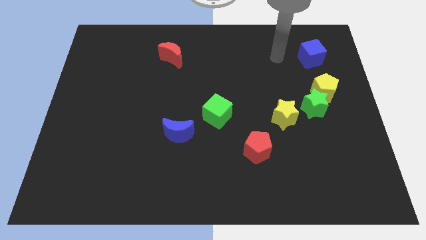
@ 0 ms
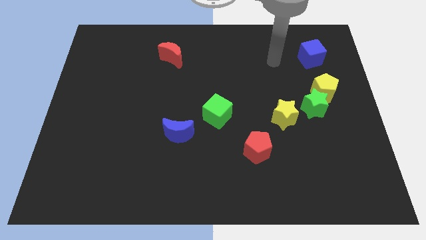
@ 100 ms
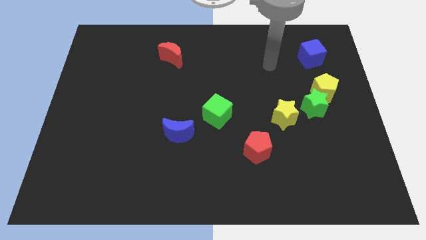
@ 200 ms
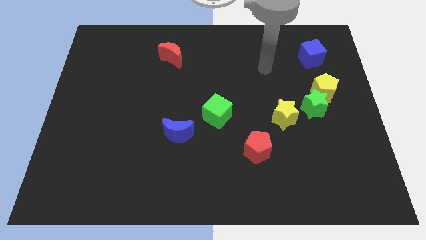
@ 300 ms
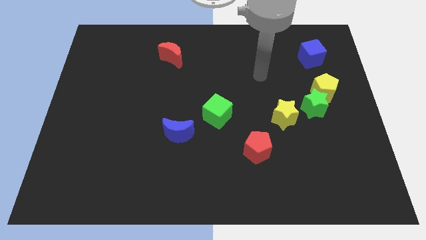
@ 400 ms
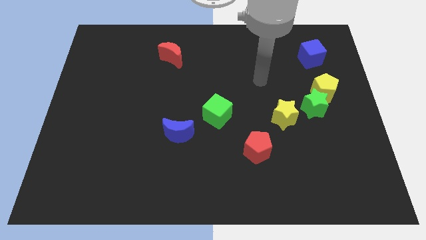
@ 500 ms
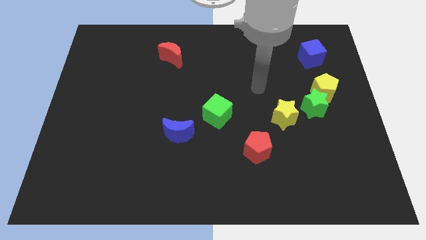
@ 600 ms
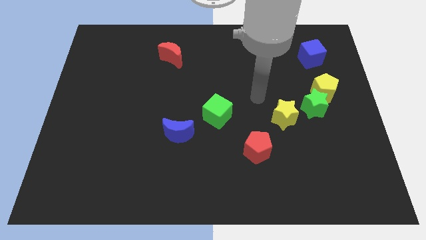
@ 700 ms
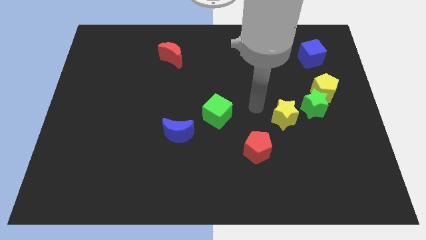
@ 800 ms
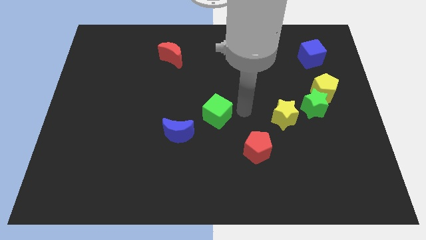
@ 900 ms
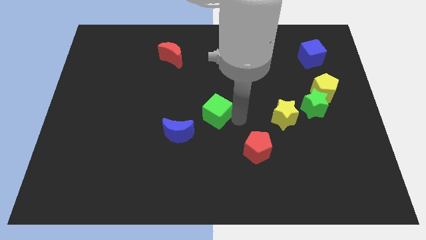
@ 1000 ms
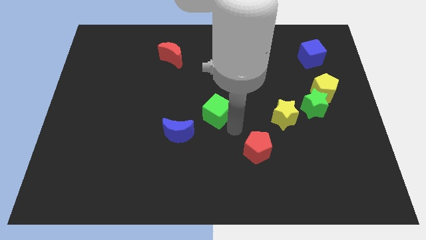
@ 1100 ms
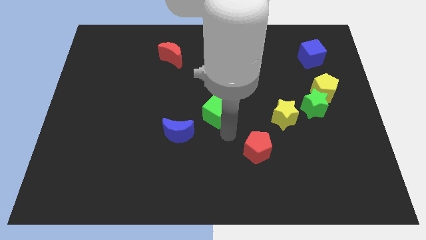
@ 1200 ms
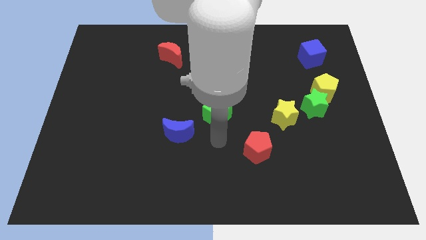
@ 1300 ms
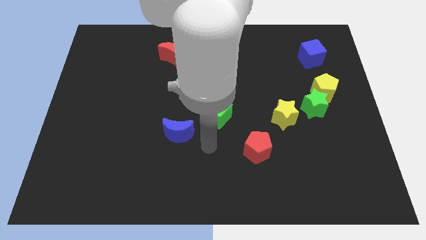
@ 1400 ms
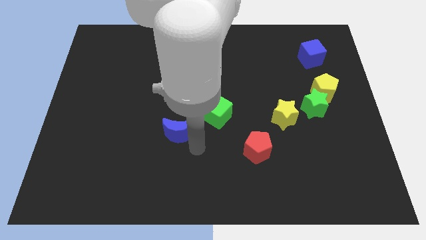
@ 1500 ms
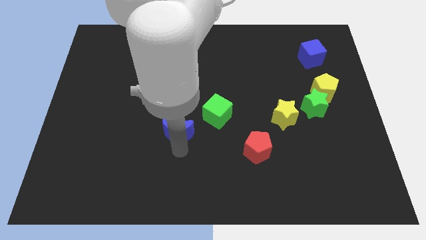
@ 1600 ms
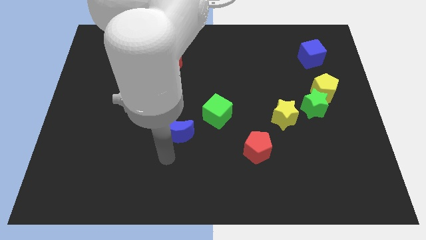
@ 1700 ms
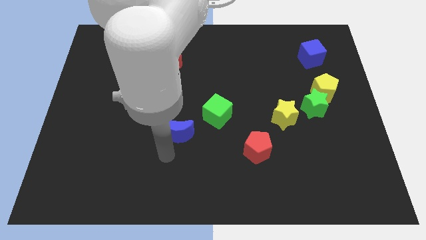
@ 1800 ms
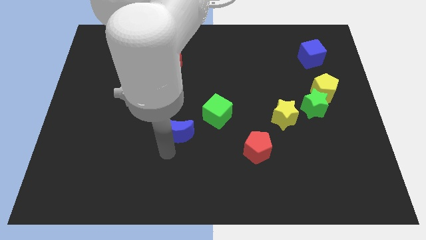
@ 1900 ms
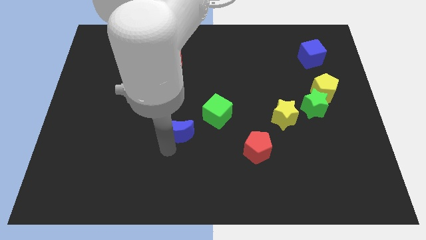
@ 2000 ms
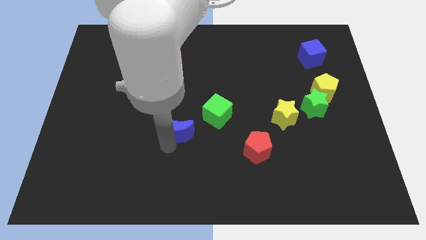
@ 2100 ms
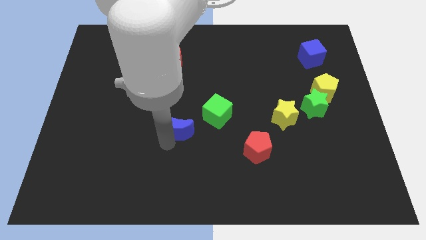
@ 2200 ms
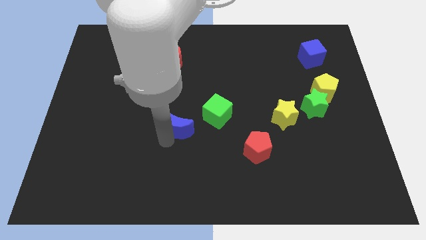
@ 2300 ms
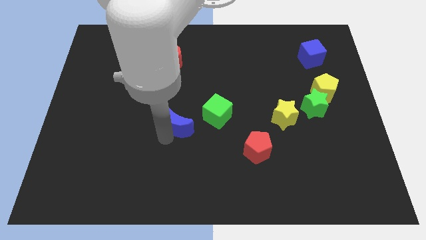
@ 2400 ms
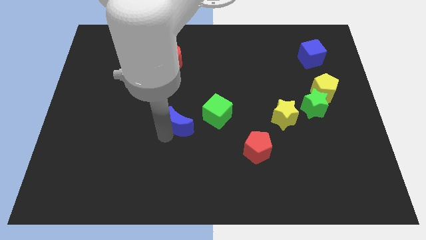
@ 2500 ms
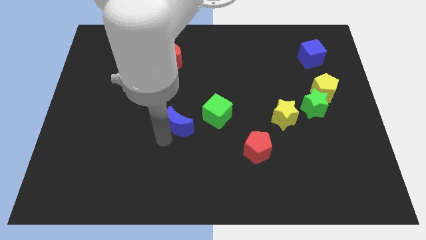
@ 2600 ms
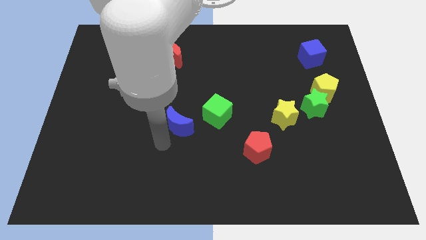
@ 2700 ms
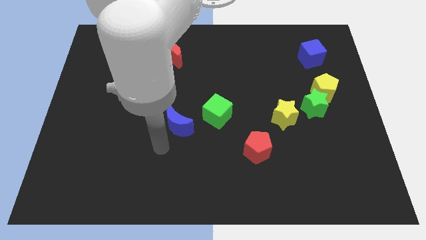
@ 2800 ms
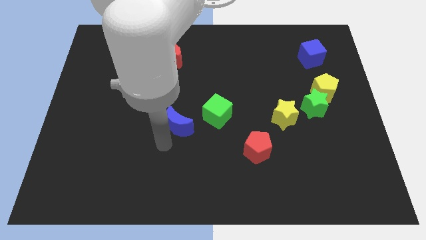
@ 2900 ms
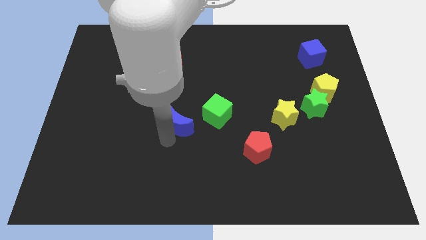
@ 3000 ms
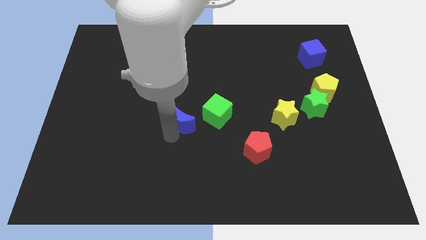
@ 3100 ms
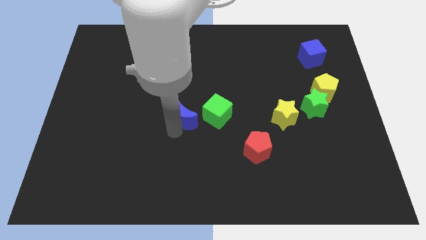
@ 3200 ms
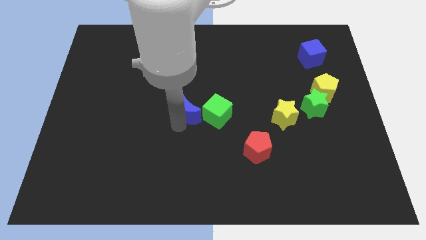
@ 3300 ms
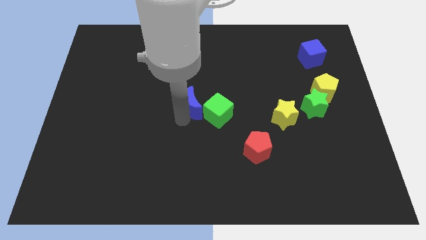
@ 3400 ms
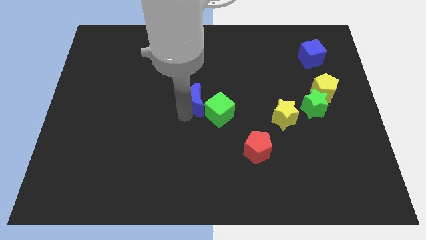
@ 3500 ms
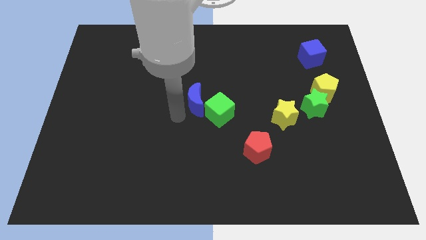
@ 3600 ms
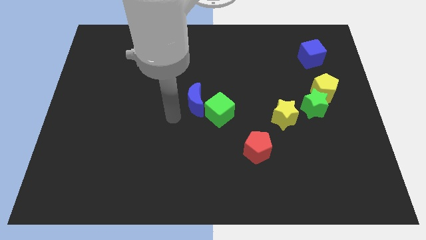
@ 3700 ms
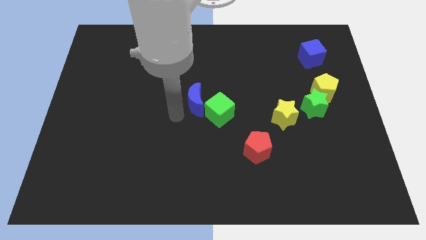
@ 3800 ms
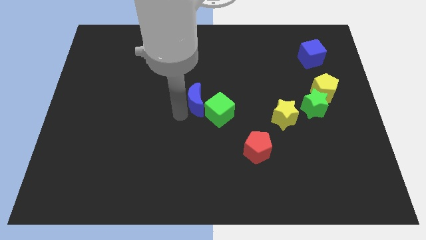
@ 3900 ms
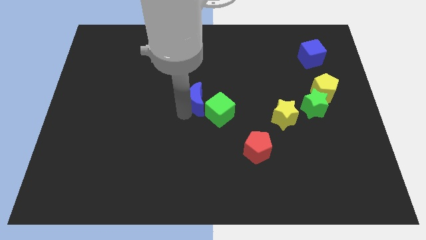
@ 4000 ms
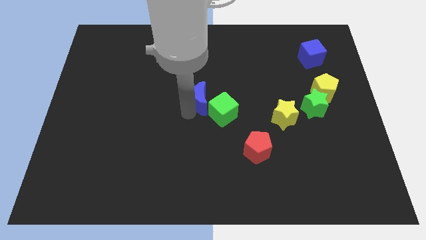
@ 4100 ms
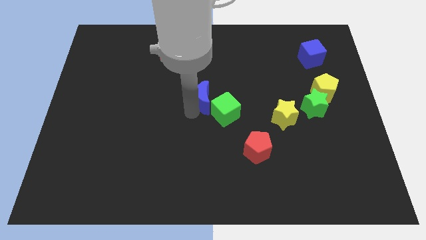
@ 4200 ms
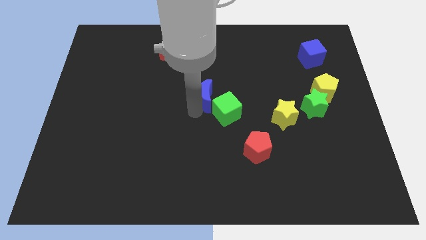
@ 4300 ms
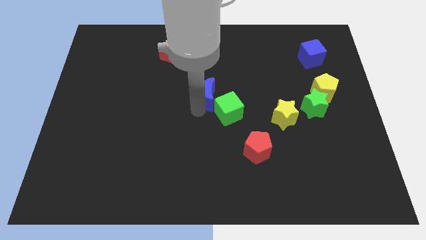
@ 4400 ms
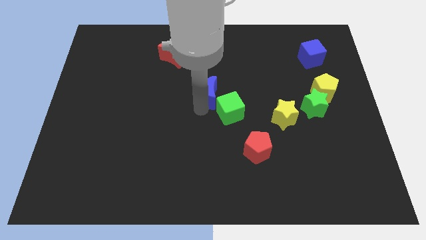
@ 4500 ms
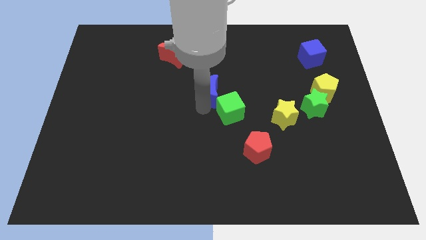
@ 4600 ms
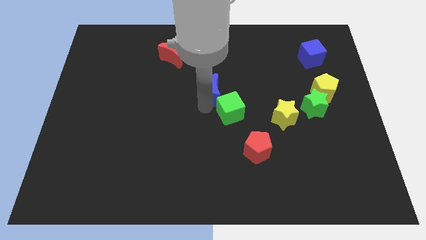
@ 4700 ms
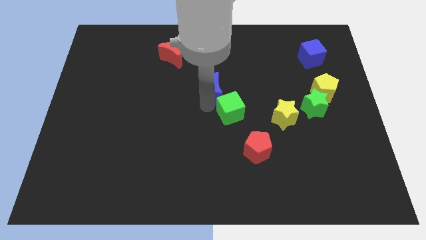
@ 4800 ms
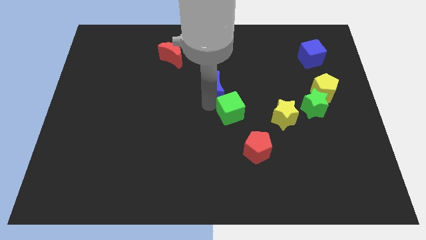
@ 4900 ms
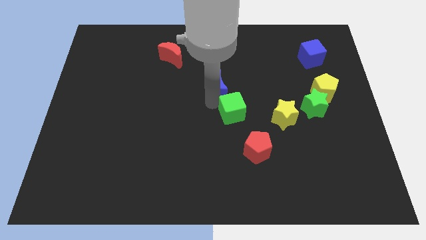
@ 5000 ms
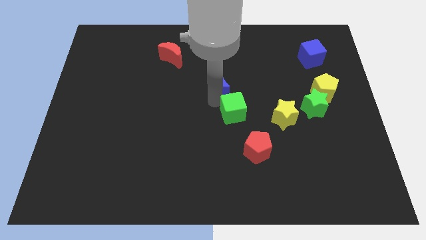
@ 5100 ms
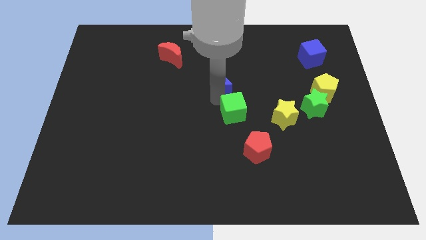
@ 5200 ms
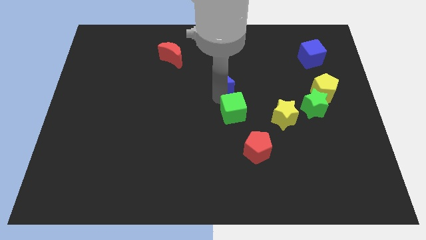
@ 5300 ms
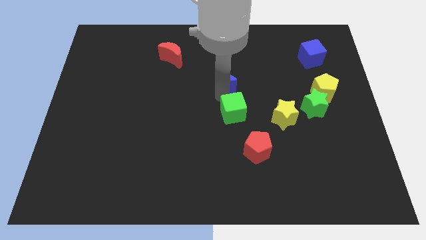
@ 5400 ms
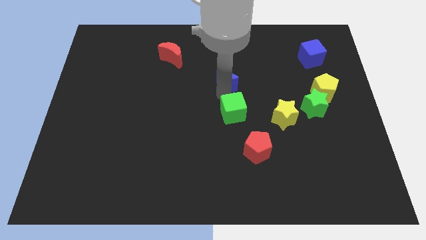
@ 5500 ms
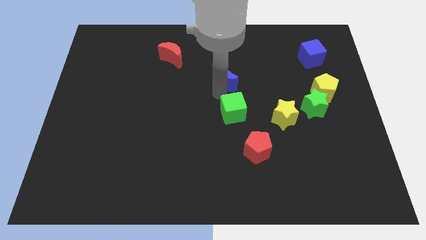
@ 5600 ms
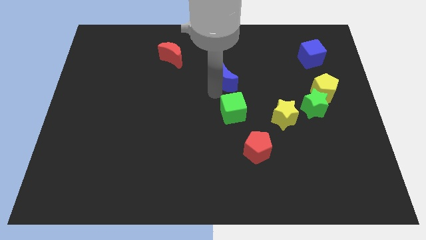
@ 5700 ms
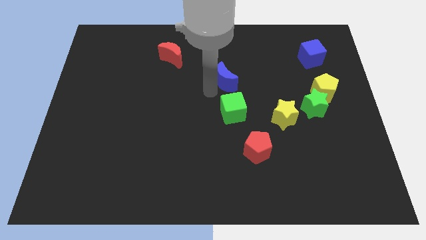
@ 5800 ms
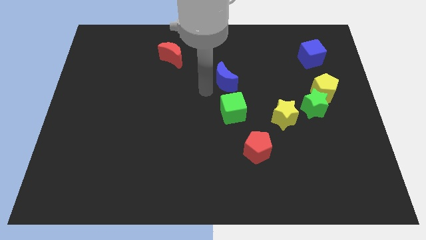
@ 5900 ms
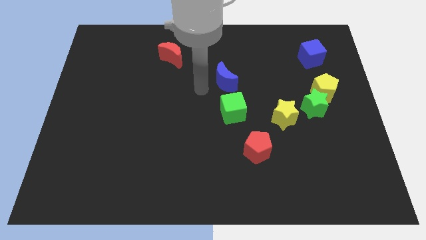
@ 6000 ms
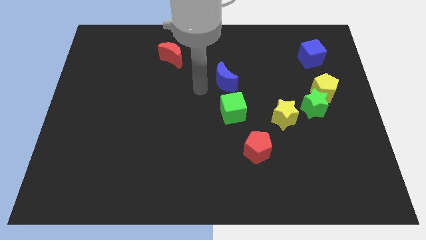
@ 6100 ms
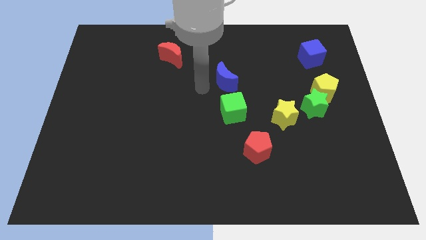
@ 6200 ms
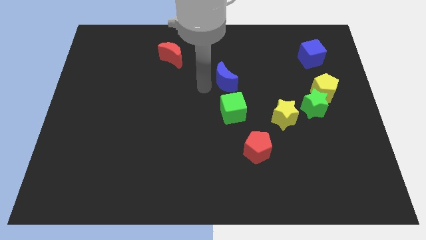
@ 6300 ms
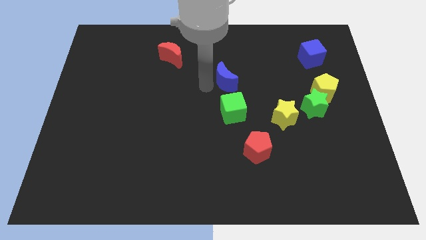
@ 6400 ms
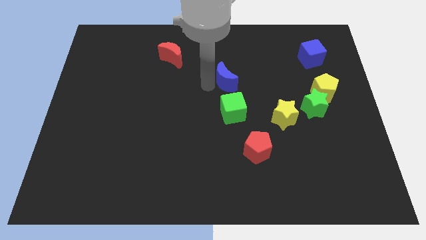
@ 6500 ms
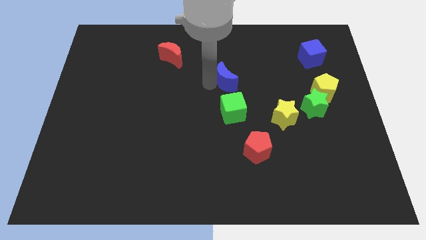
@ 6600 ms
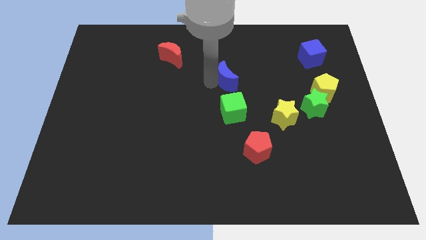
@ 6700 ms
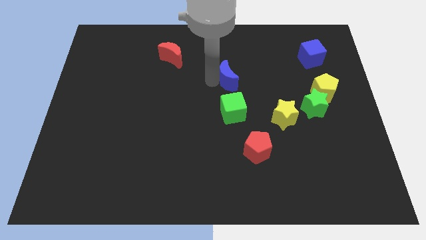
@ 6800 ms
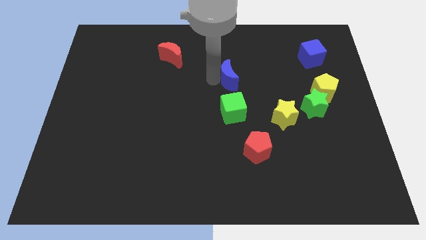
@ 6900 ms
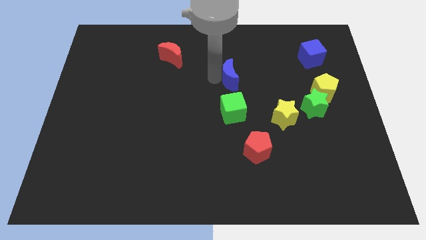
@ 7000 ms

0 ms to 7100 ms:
slide the blue moon up and then right

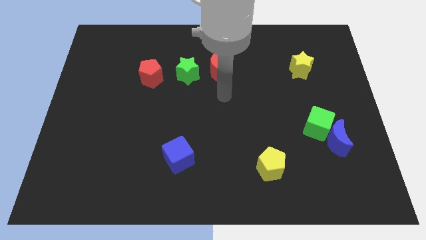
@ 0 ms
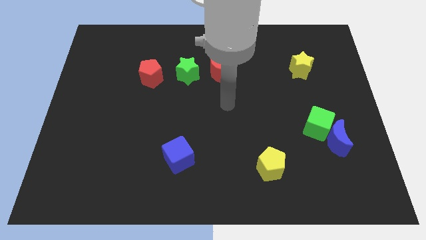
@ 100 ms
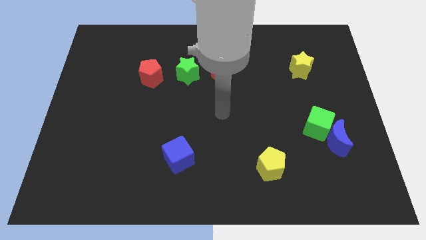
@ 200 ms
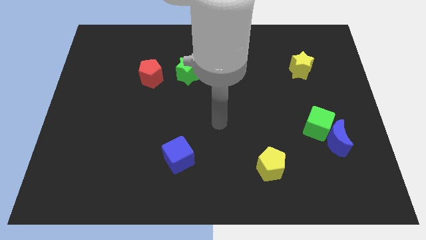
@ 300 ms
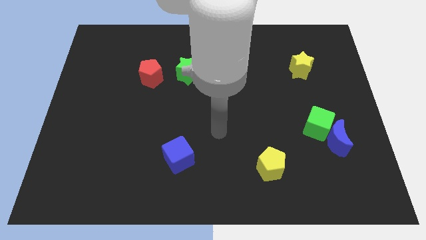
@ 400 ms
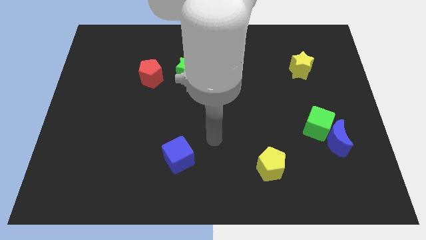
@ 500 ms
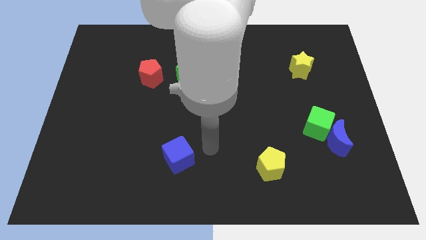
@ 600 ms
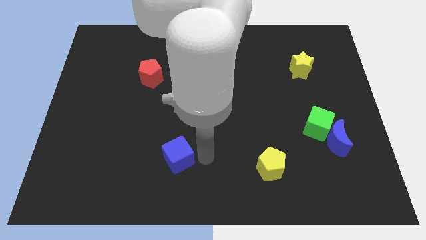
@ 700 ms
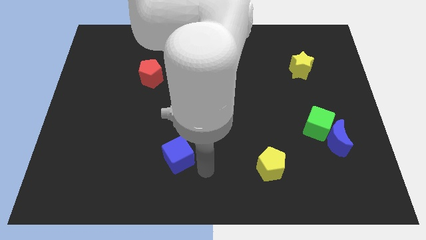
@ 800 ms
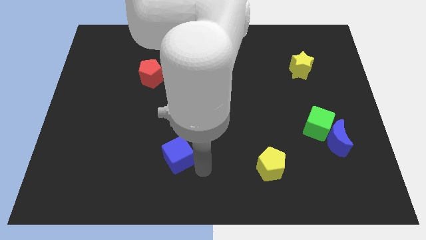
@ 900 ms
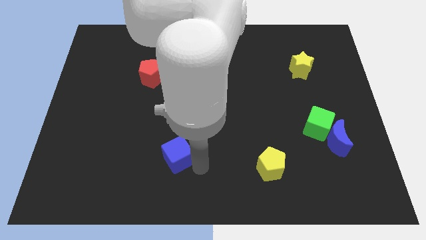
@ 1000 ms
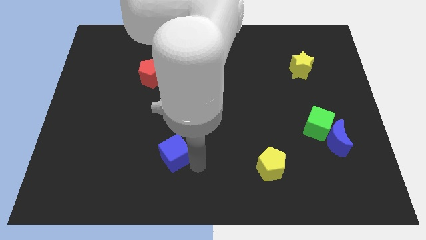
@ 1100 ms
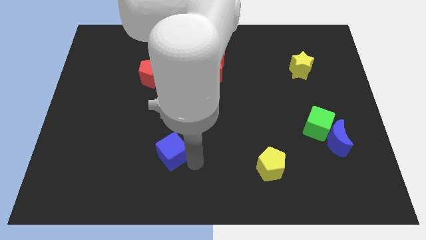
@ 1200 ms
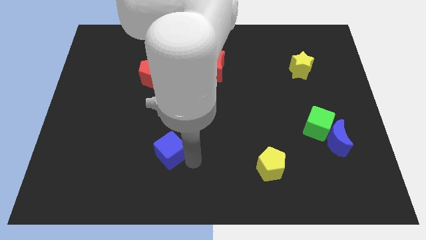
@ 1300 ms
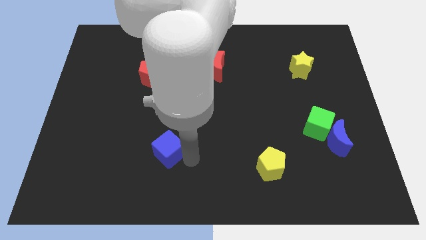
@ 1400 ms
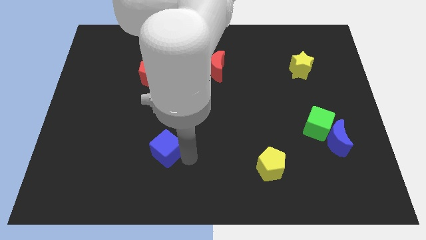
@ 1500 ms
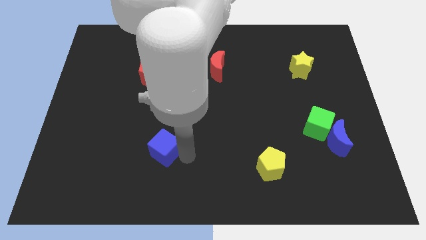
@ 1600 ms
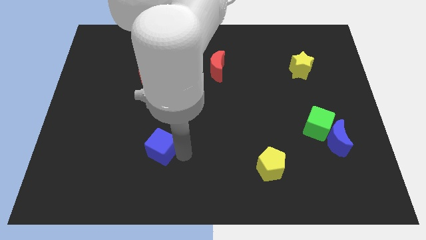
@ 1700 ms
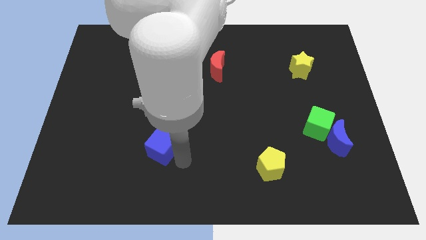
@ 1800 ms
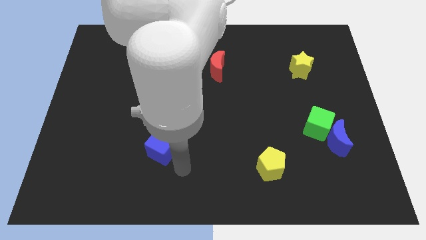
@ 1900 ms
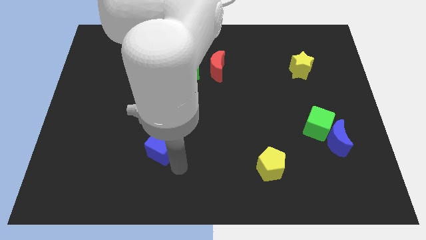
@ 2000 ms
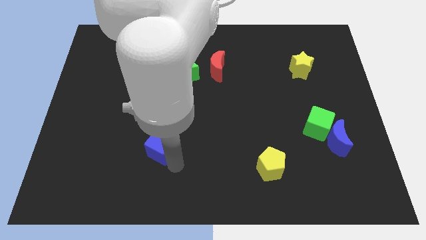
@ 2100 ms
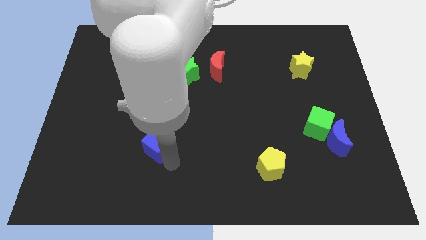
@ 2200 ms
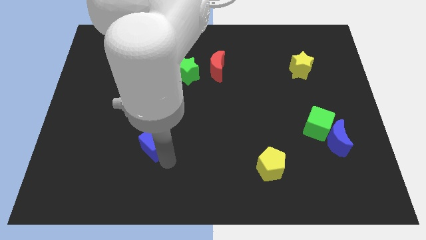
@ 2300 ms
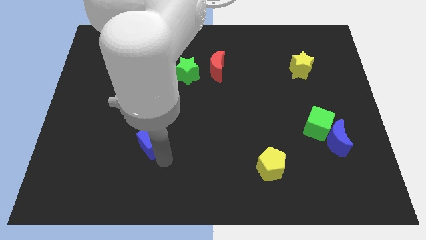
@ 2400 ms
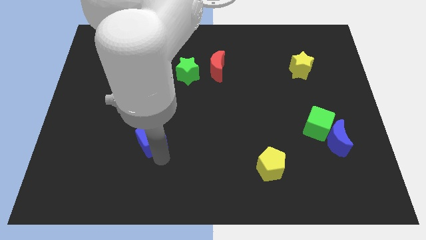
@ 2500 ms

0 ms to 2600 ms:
slightly slide the blue cube upwards and to the left
